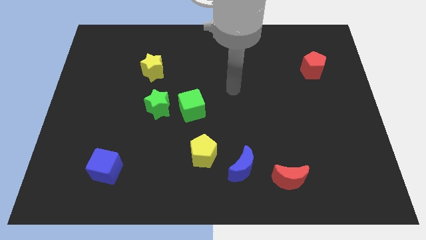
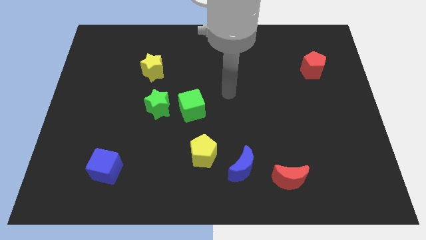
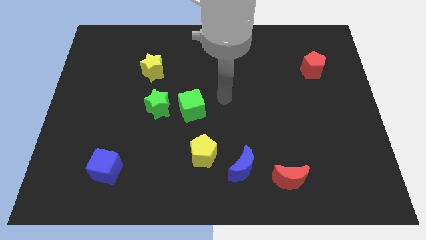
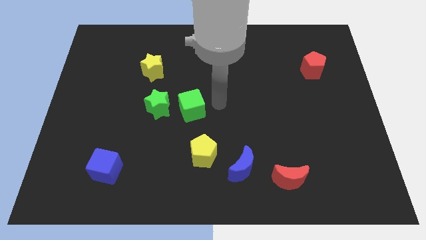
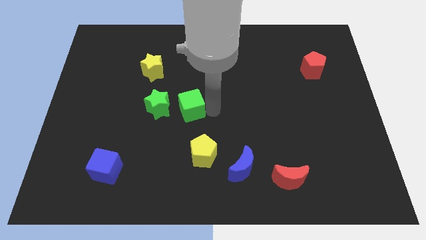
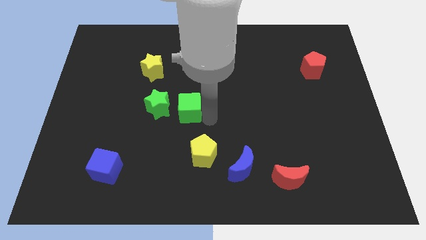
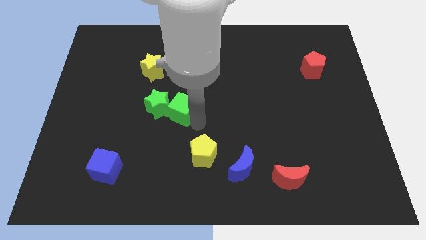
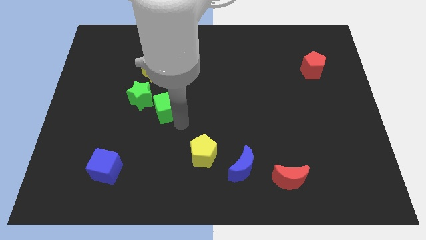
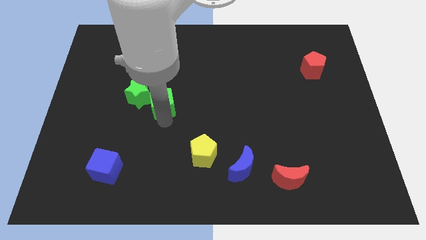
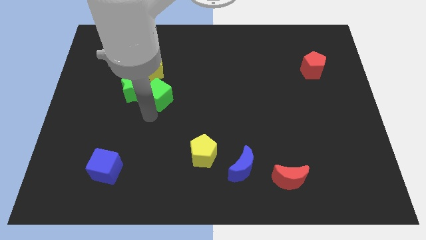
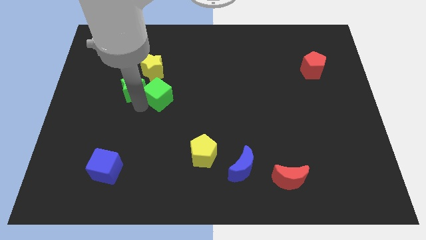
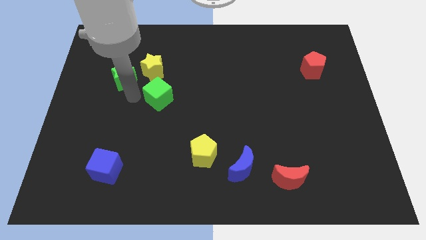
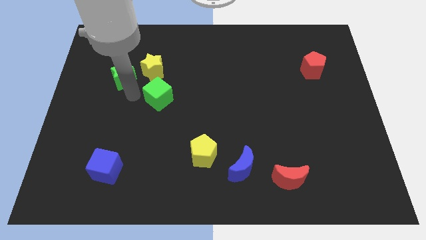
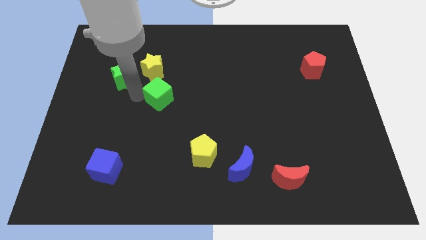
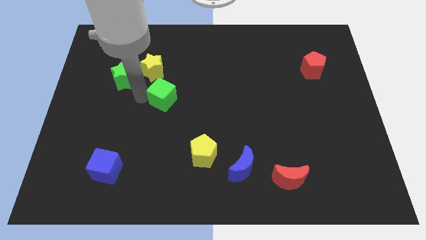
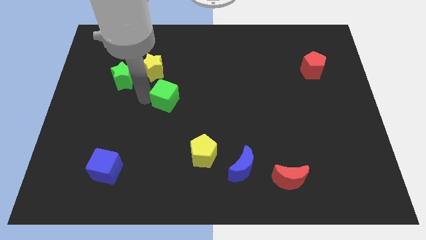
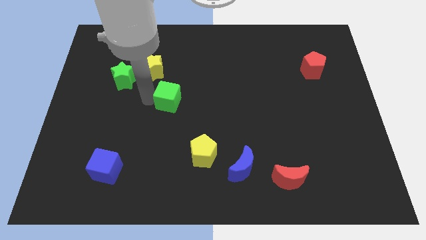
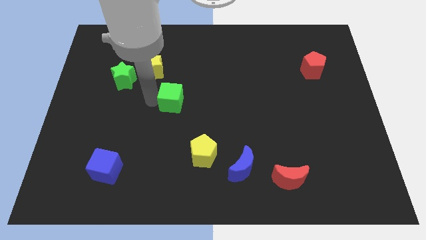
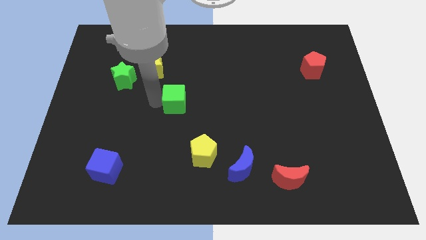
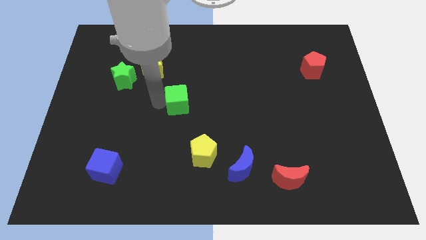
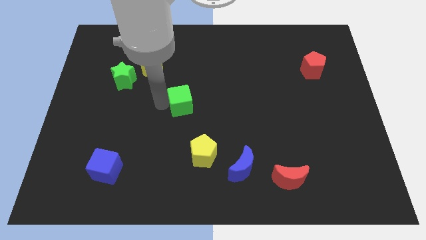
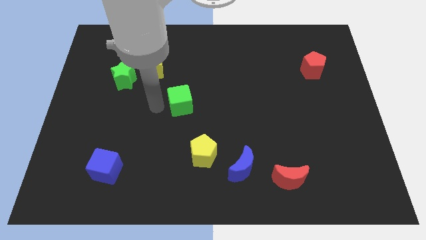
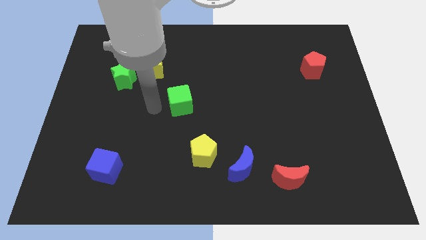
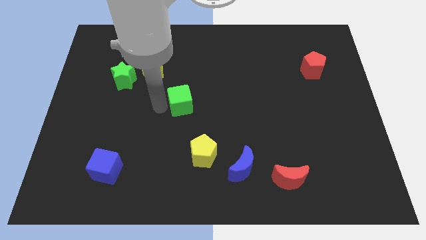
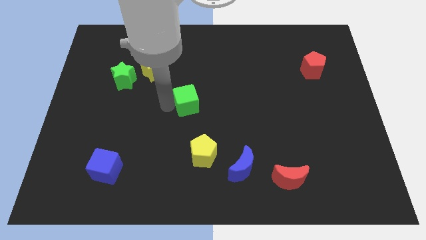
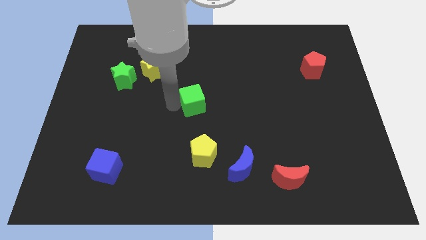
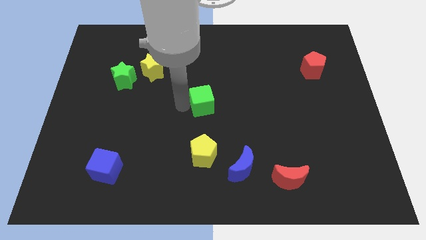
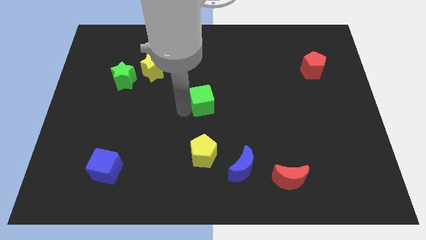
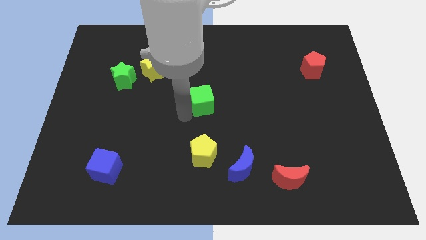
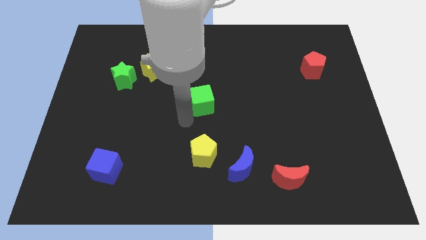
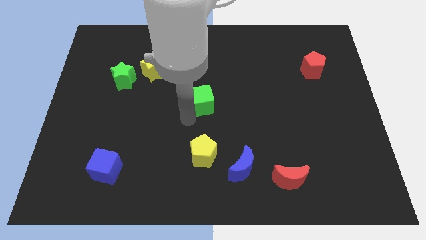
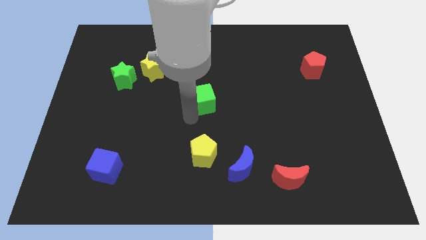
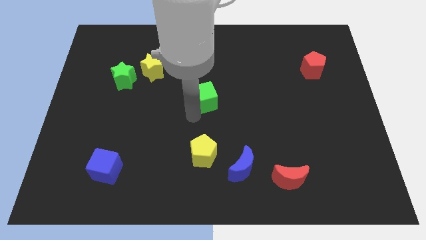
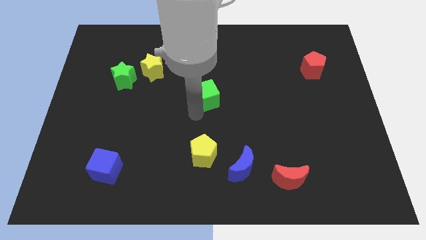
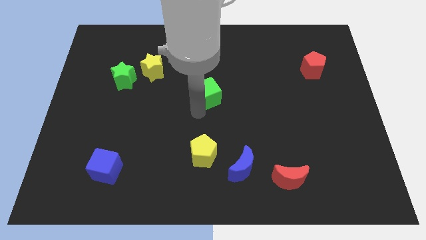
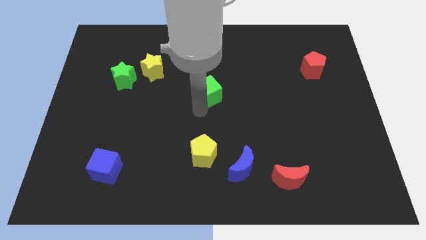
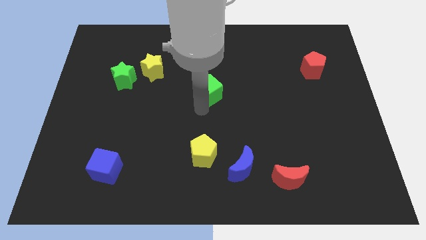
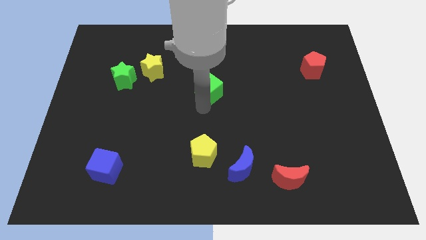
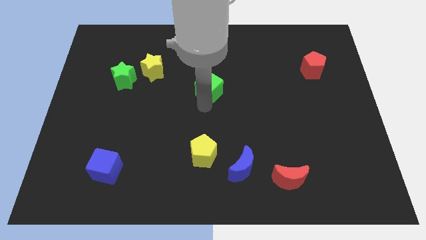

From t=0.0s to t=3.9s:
move the green cube a little bit upwards and to the right

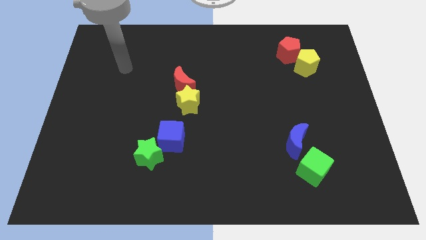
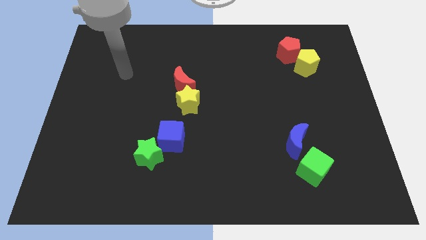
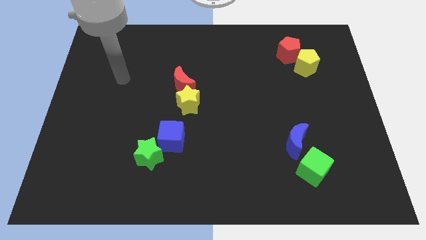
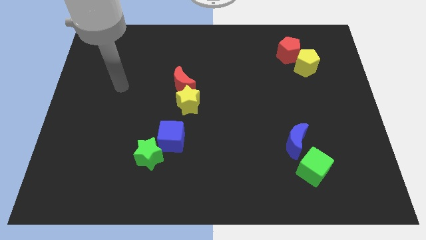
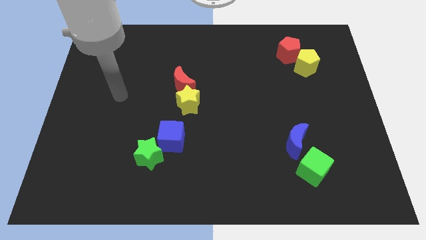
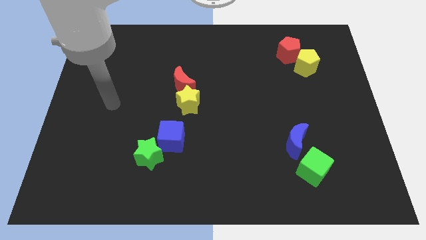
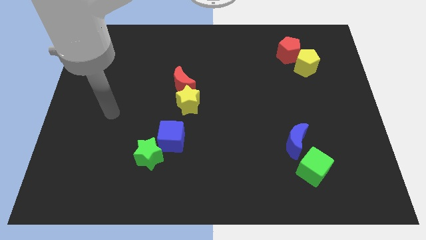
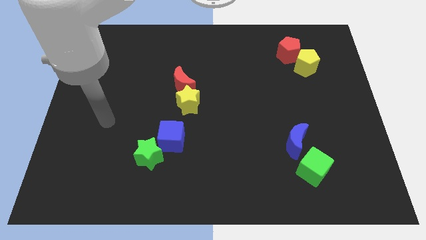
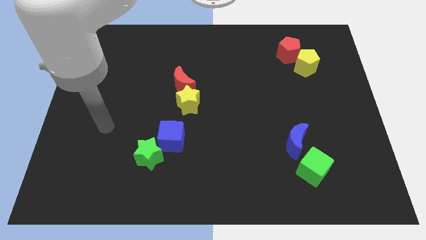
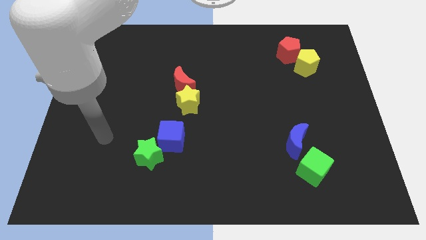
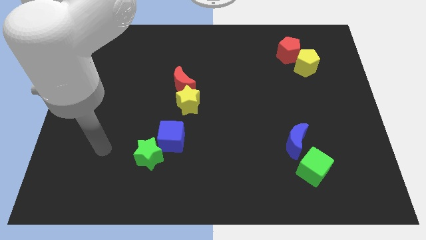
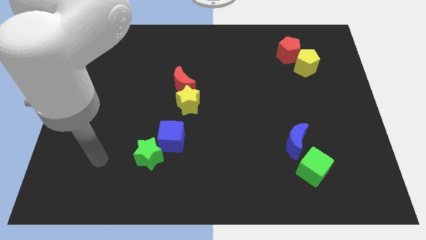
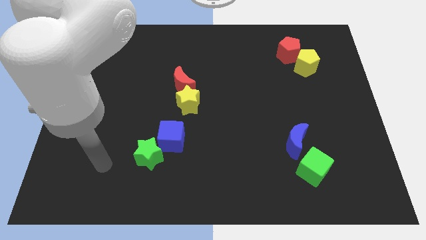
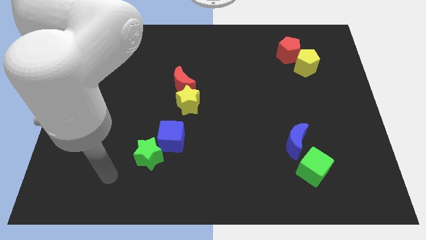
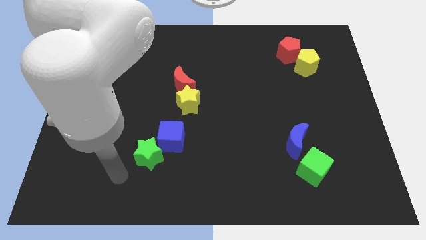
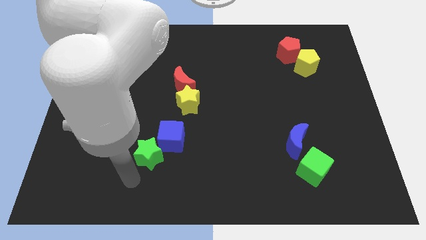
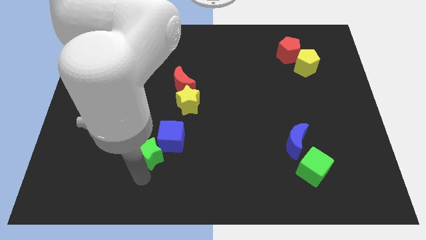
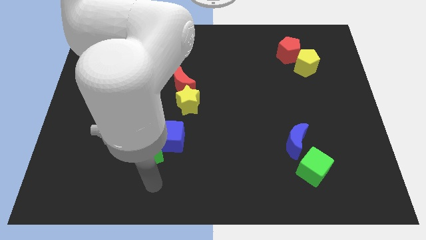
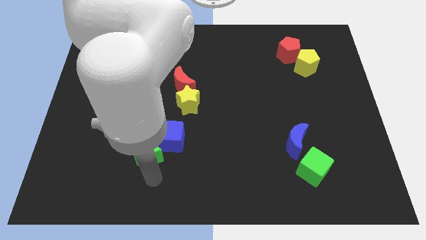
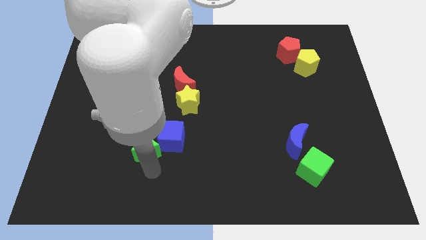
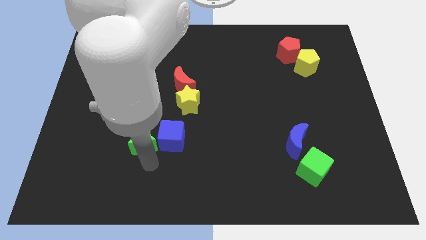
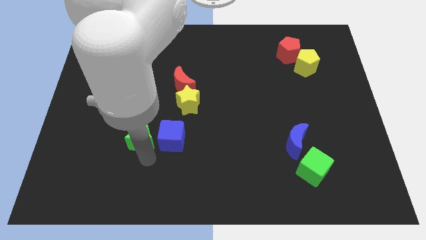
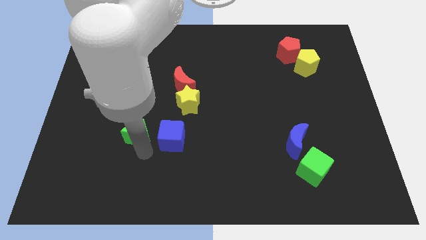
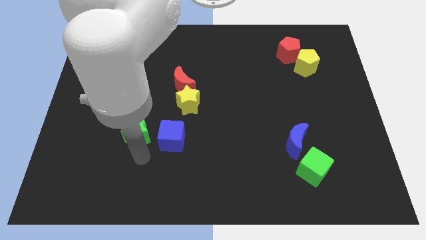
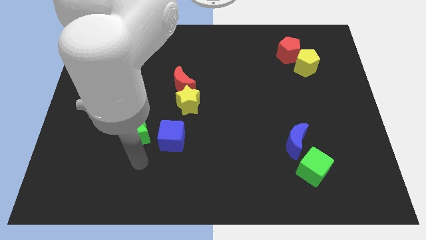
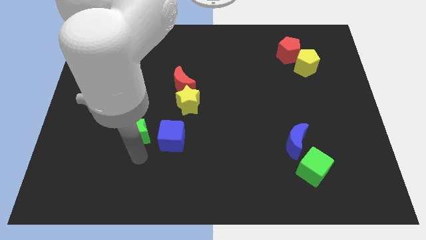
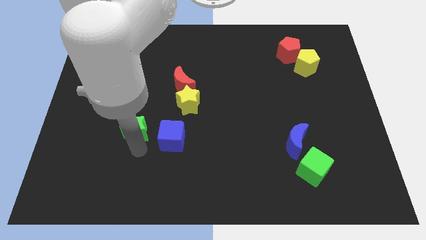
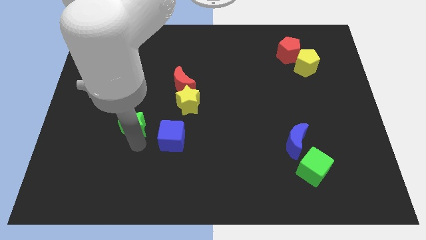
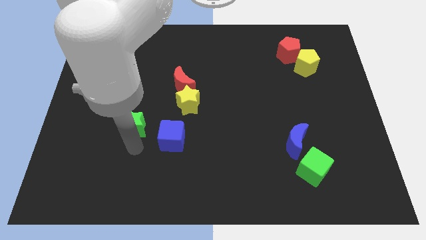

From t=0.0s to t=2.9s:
move the green star upwards a little bit

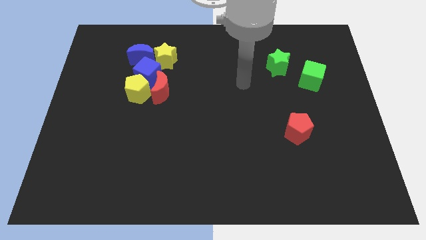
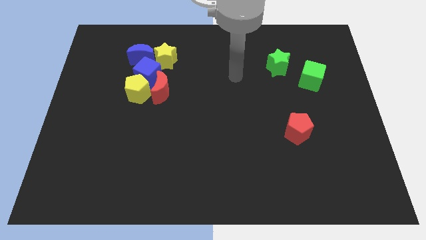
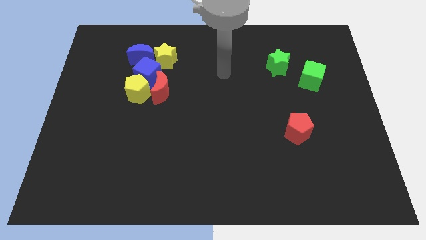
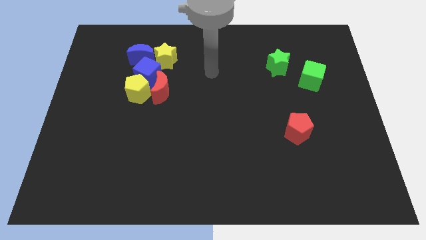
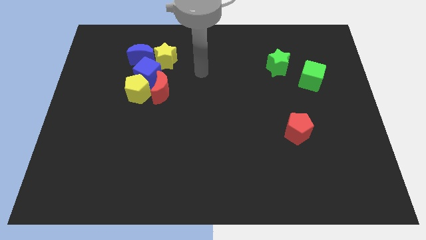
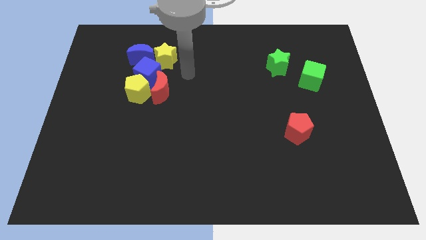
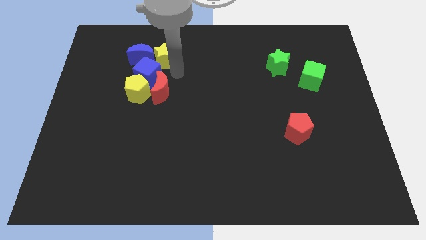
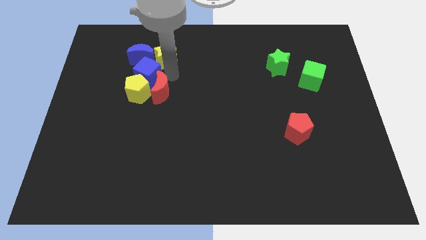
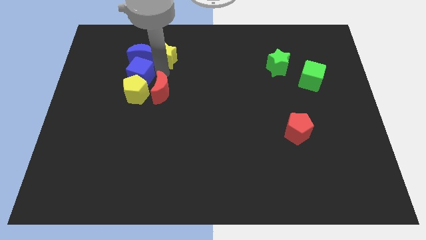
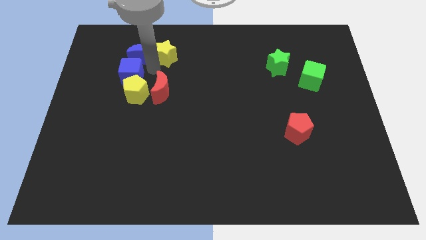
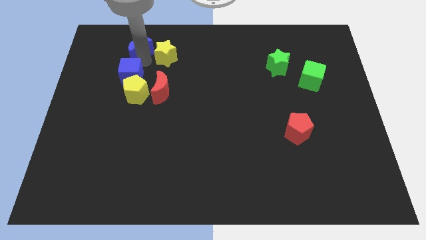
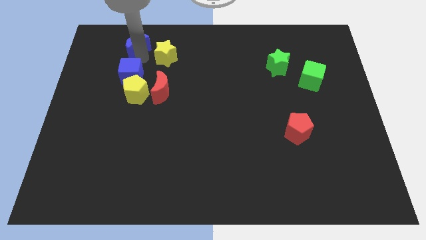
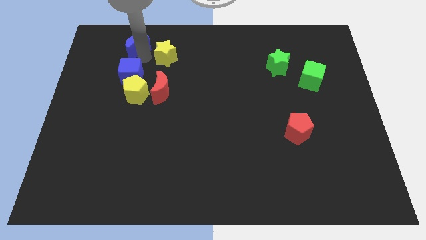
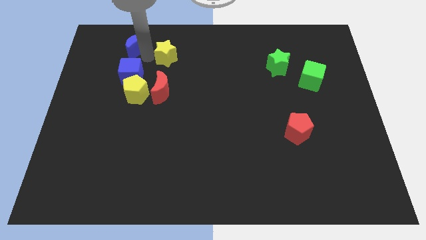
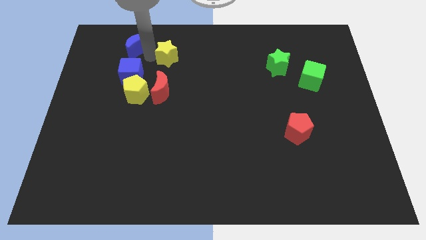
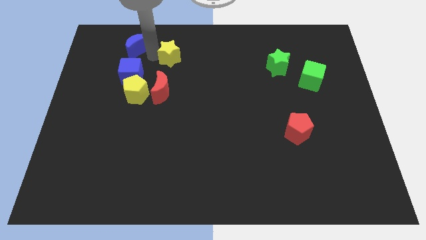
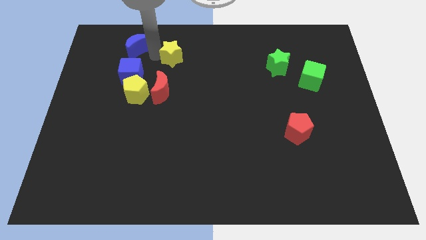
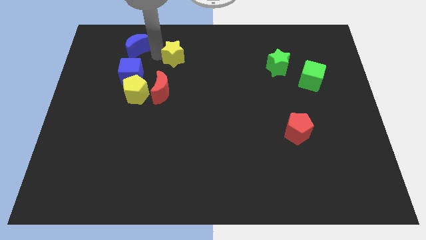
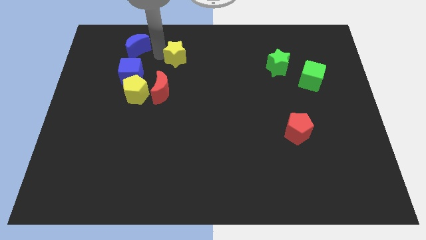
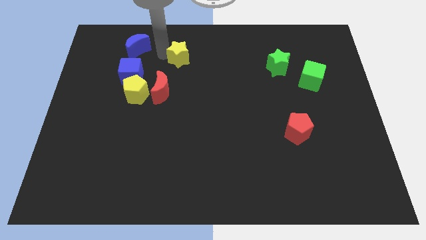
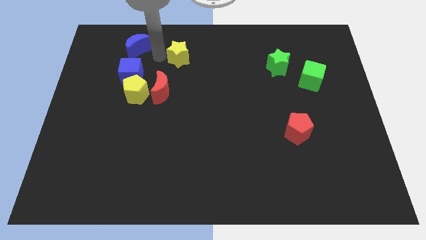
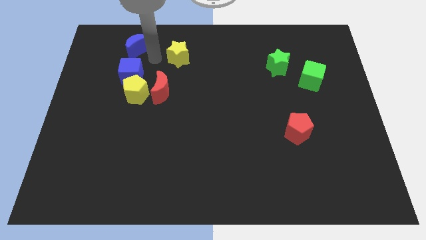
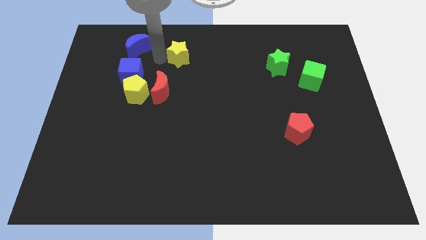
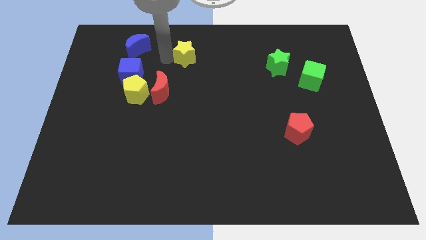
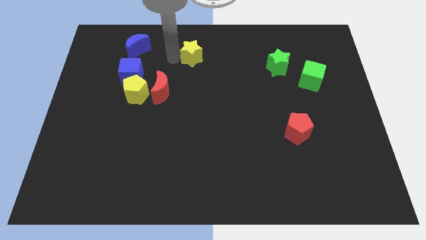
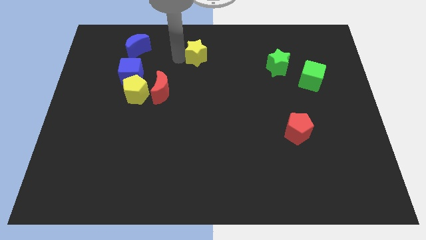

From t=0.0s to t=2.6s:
move the yellow star to the right a little
